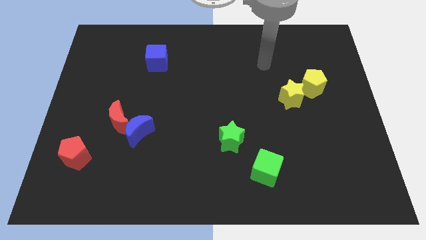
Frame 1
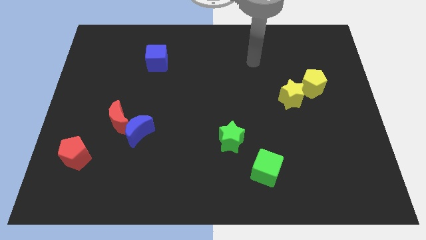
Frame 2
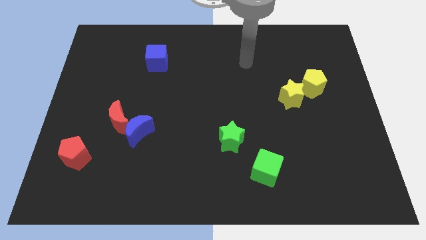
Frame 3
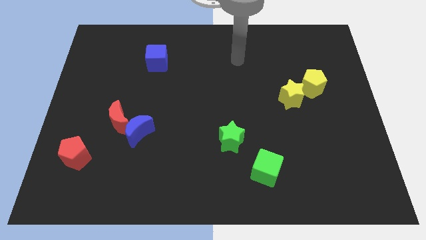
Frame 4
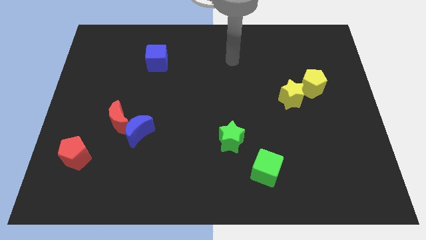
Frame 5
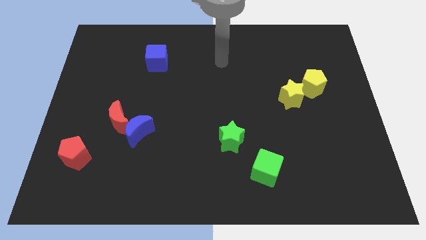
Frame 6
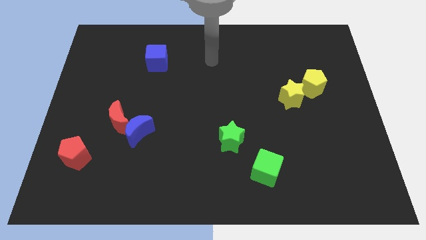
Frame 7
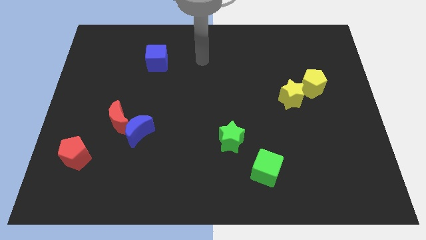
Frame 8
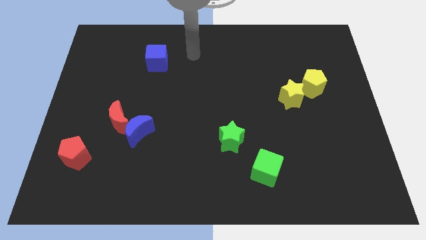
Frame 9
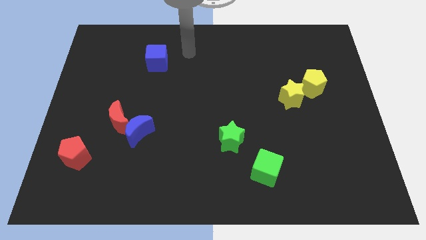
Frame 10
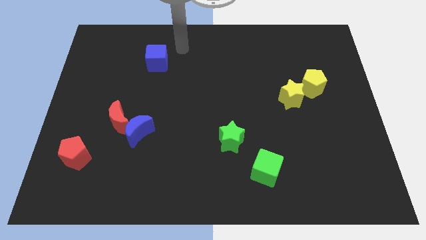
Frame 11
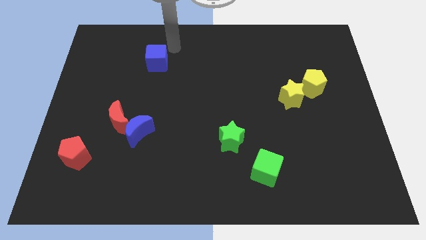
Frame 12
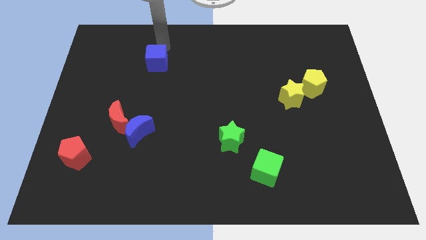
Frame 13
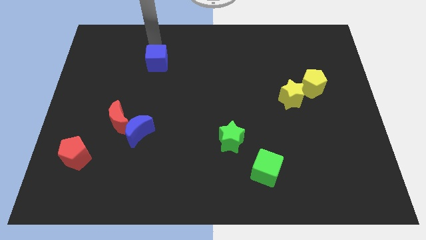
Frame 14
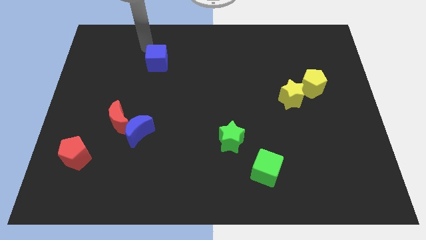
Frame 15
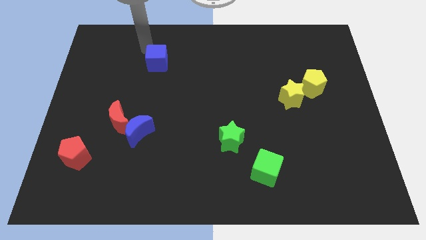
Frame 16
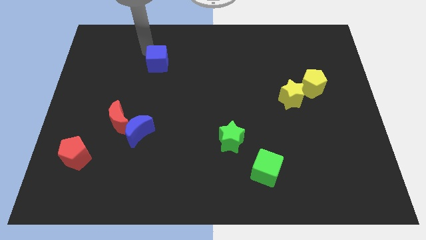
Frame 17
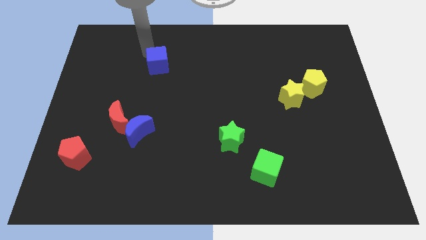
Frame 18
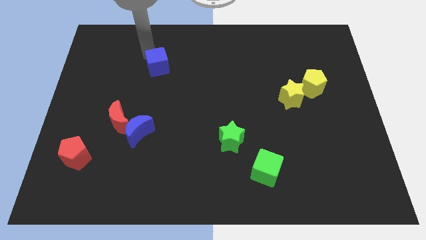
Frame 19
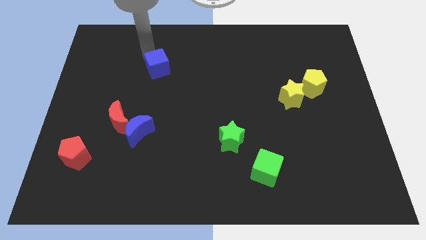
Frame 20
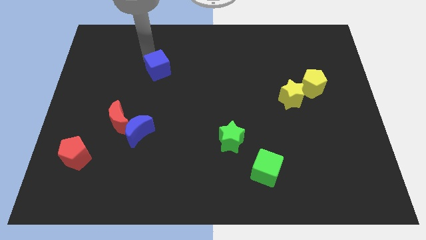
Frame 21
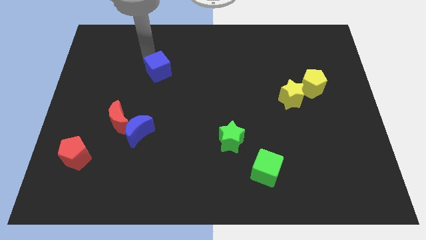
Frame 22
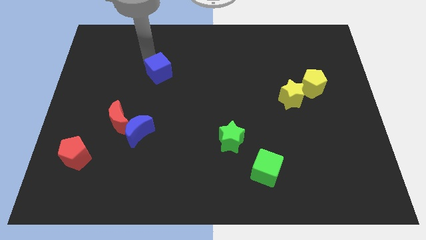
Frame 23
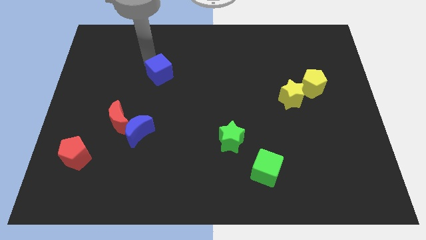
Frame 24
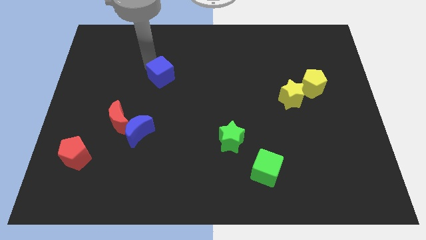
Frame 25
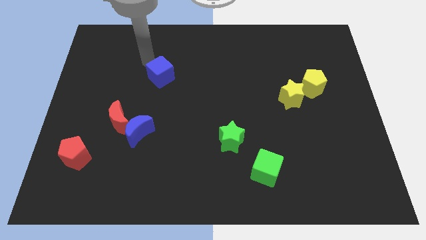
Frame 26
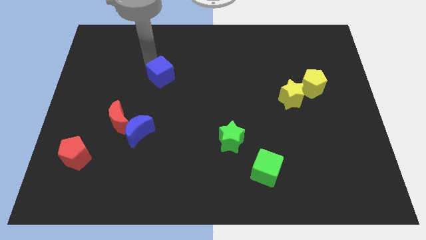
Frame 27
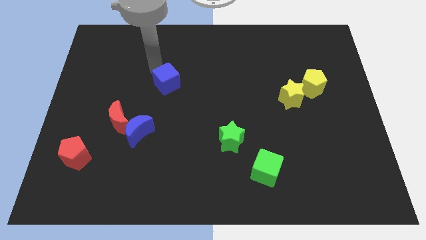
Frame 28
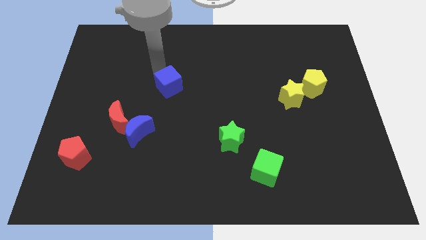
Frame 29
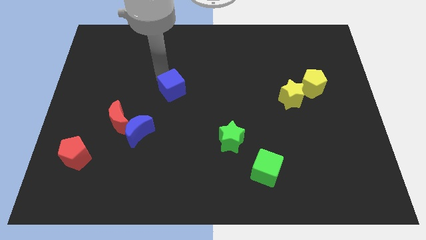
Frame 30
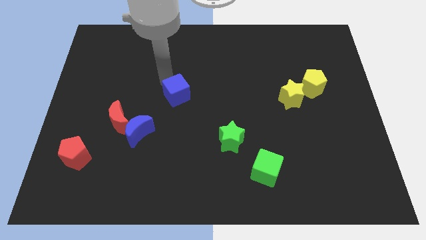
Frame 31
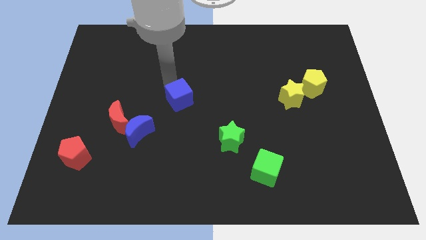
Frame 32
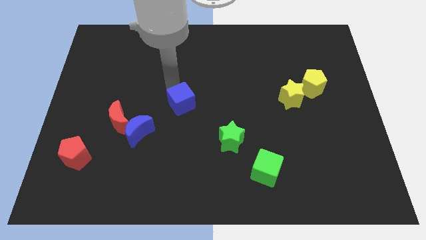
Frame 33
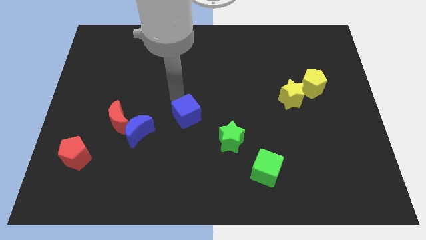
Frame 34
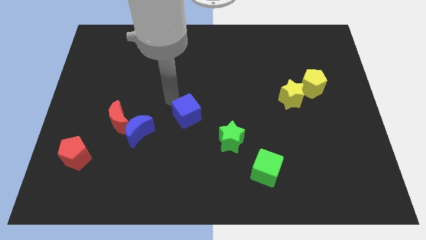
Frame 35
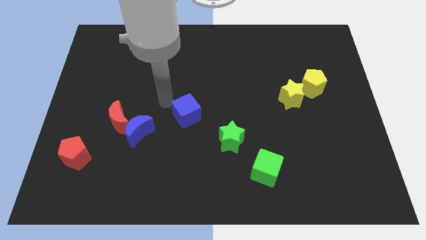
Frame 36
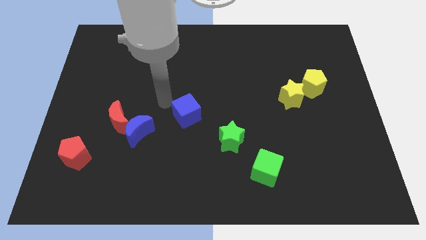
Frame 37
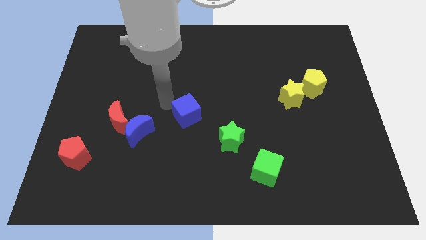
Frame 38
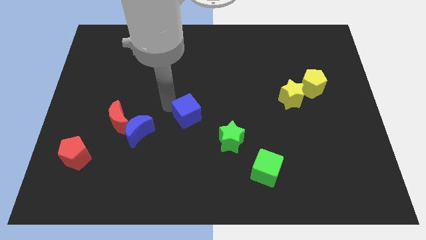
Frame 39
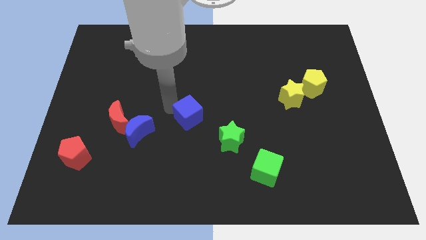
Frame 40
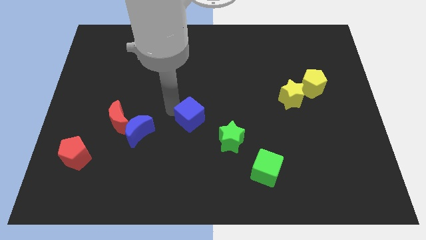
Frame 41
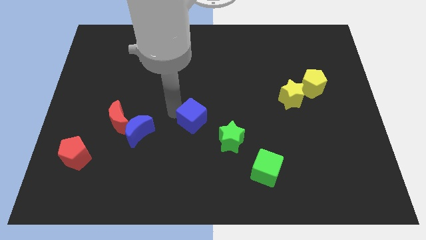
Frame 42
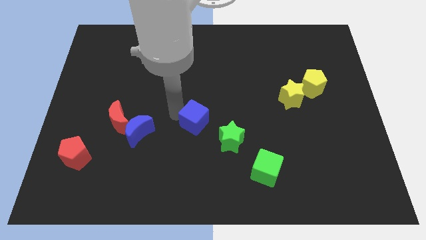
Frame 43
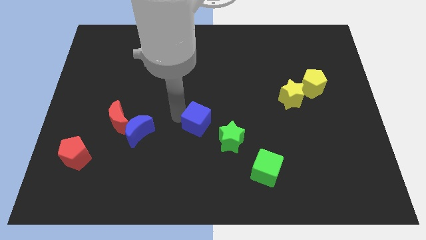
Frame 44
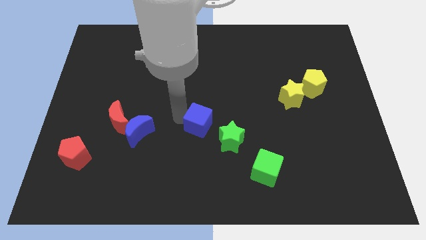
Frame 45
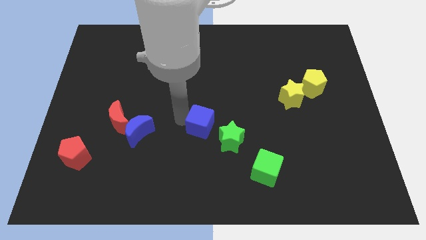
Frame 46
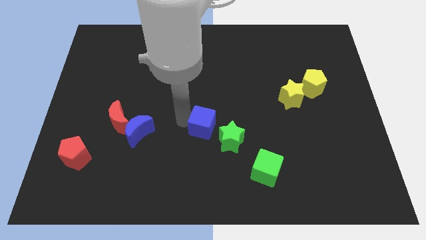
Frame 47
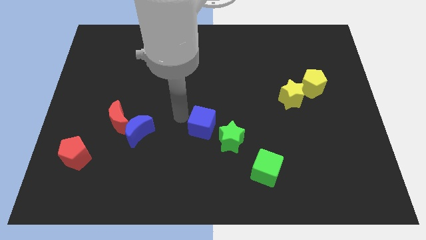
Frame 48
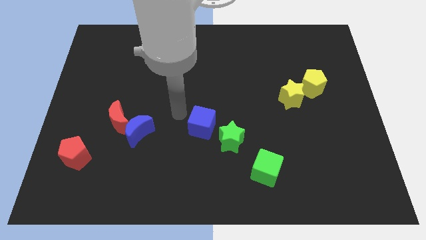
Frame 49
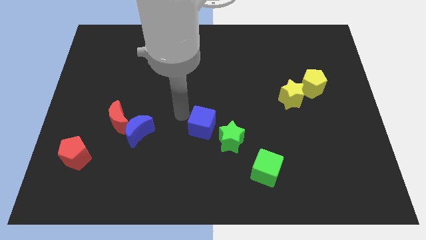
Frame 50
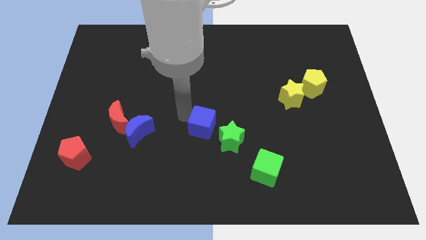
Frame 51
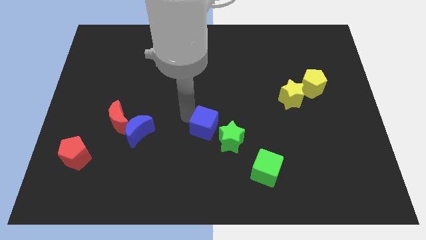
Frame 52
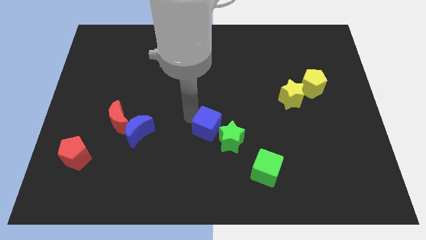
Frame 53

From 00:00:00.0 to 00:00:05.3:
push the blue cube next to the green star

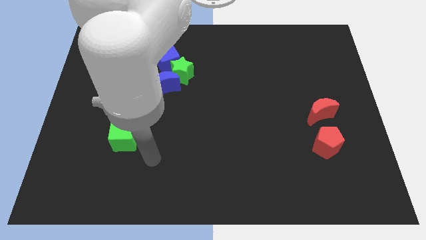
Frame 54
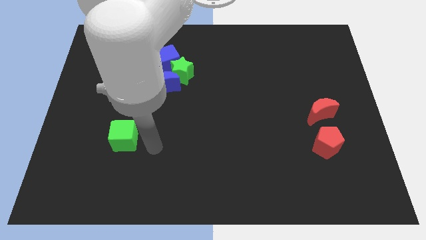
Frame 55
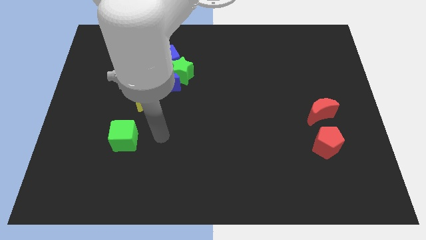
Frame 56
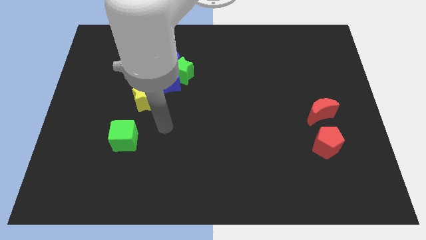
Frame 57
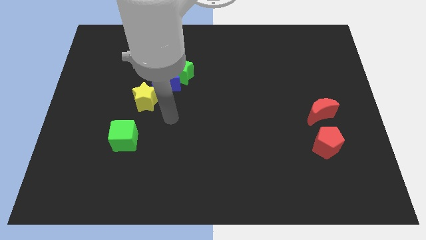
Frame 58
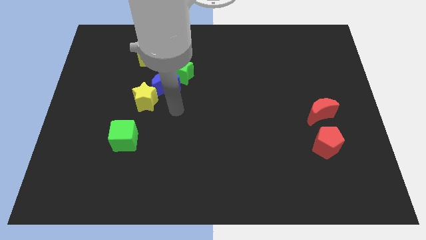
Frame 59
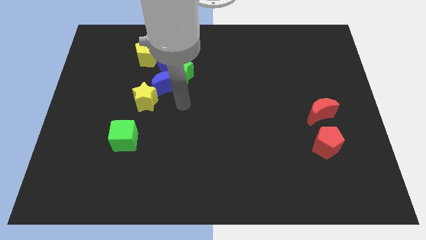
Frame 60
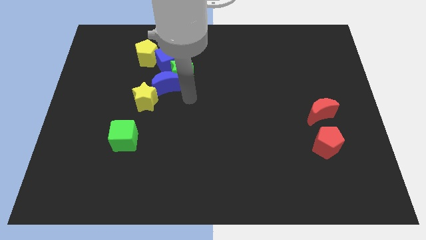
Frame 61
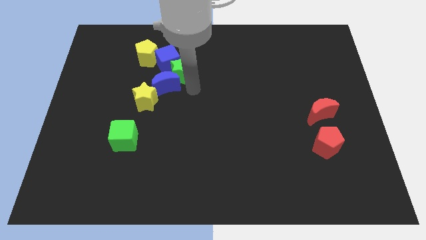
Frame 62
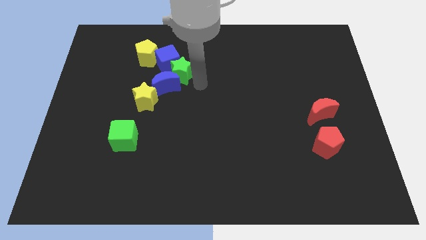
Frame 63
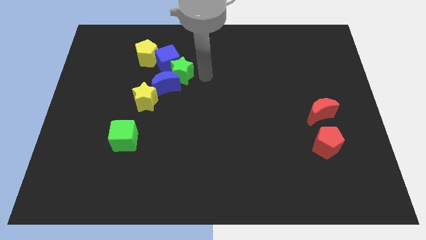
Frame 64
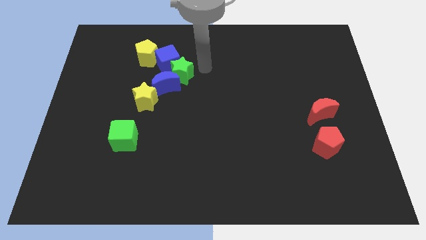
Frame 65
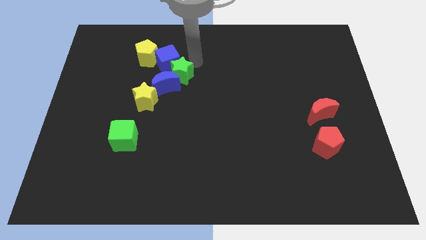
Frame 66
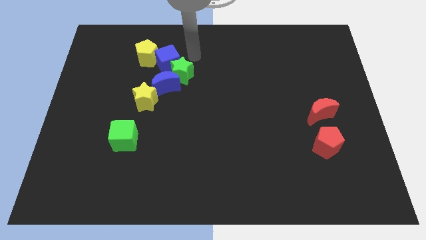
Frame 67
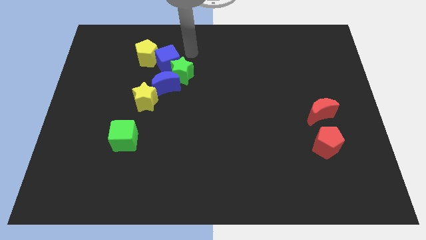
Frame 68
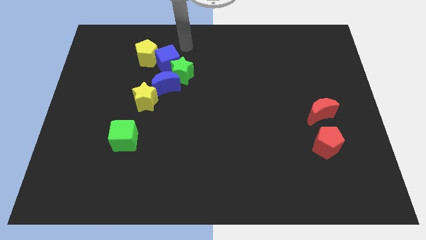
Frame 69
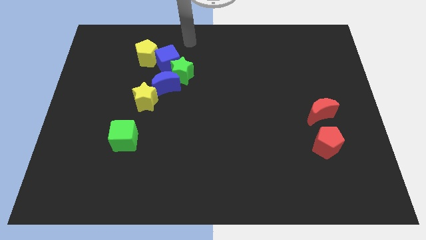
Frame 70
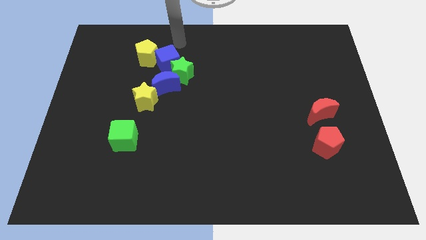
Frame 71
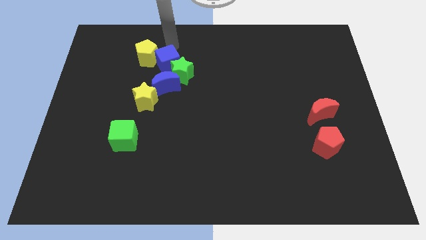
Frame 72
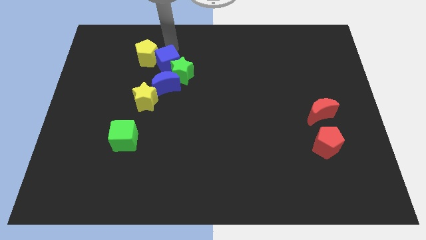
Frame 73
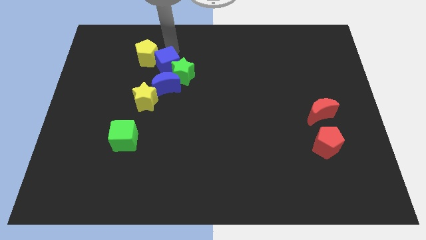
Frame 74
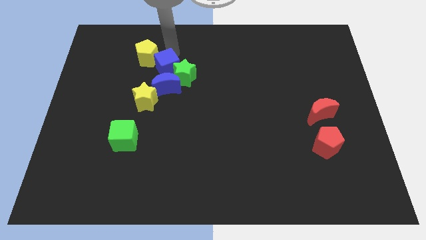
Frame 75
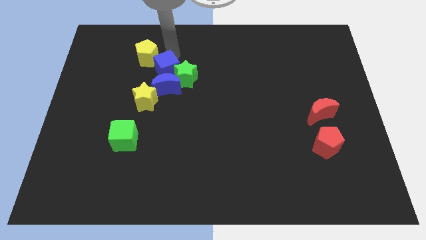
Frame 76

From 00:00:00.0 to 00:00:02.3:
move the blue cube next to the blue moon
